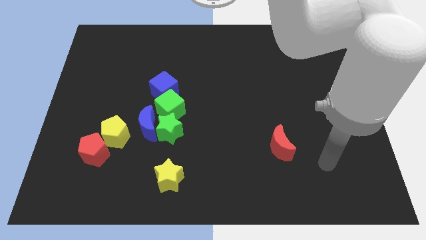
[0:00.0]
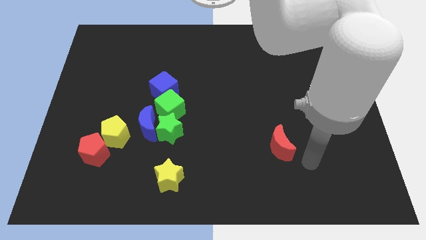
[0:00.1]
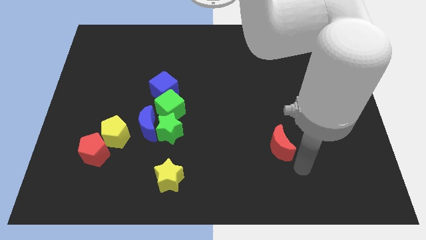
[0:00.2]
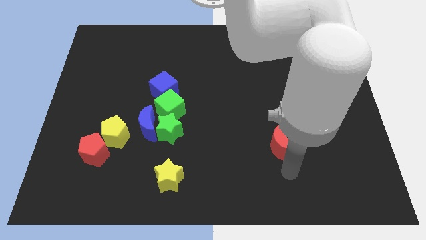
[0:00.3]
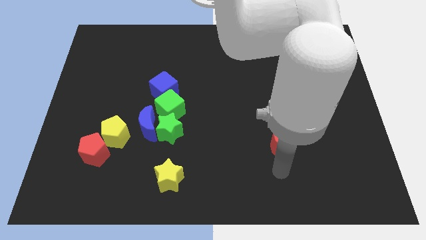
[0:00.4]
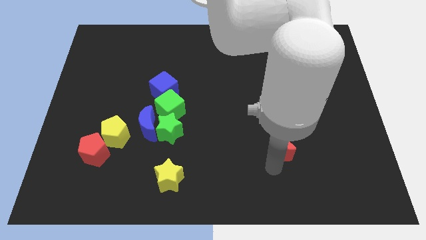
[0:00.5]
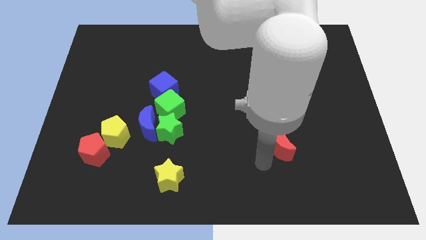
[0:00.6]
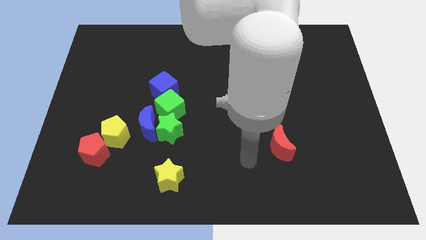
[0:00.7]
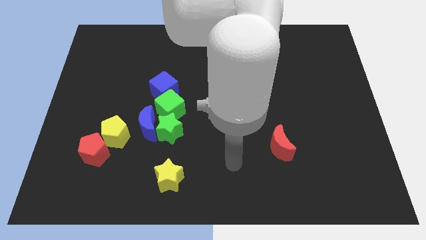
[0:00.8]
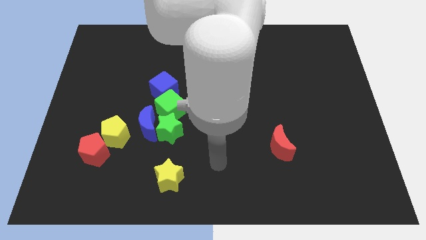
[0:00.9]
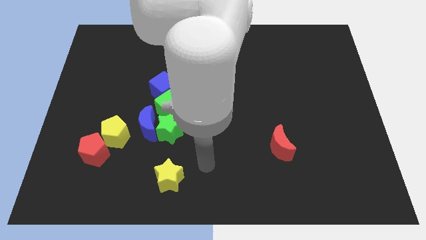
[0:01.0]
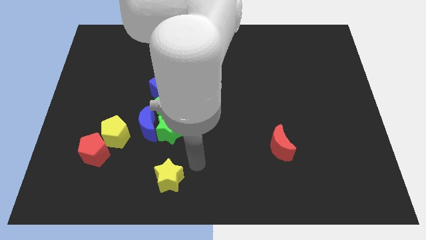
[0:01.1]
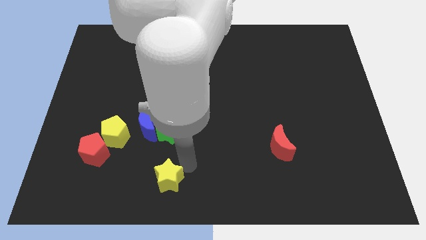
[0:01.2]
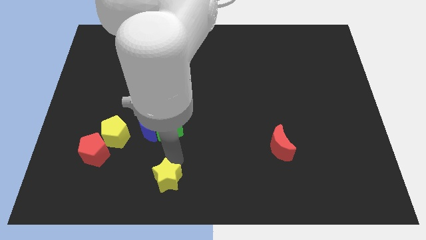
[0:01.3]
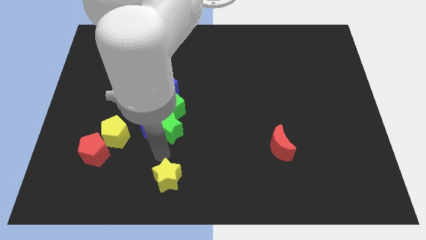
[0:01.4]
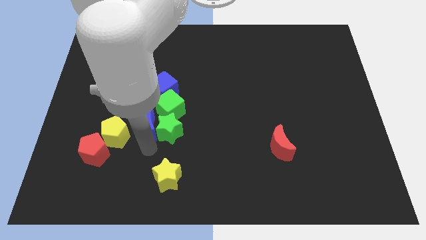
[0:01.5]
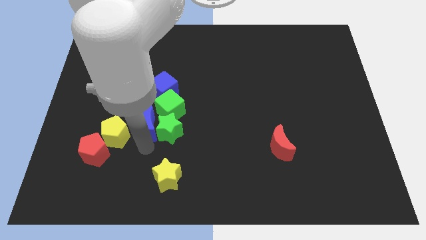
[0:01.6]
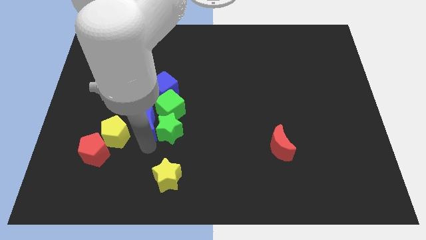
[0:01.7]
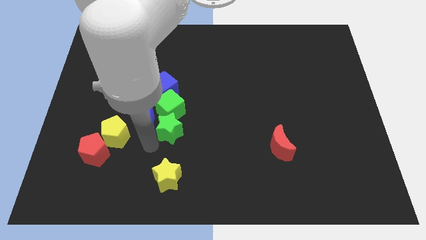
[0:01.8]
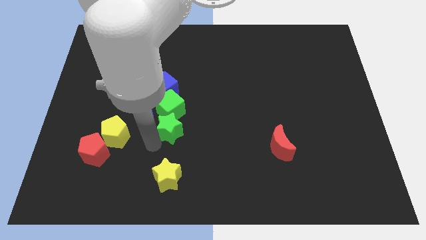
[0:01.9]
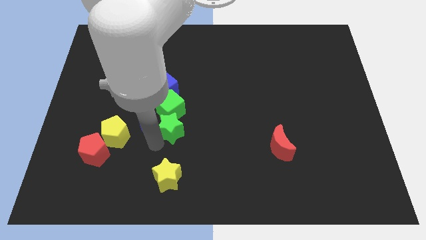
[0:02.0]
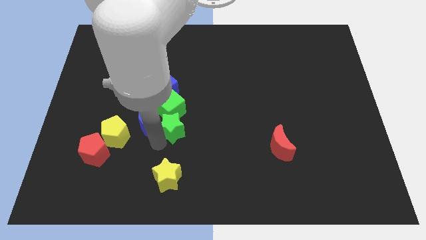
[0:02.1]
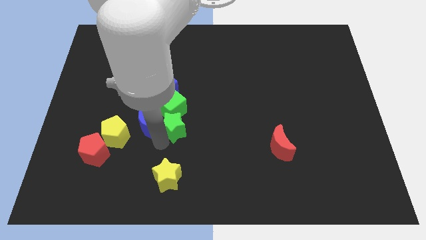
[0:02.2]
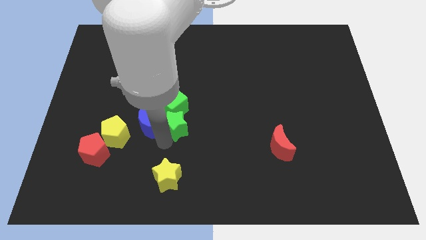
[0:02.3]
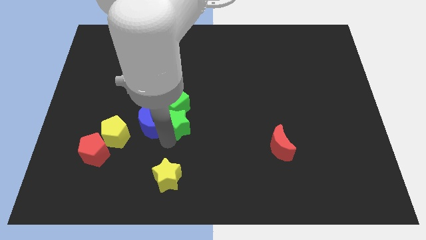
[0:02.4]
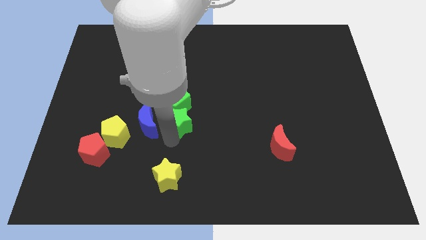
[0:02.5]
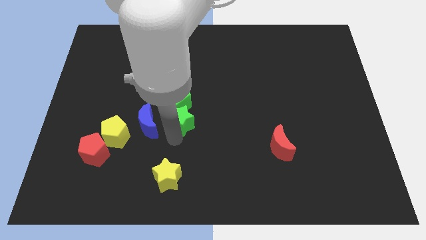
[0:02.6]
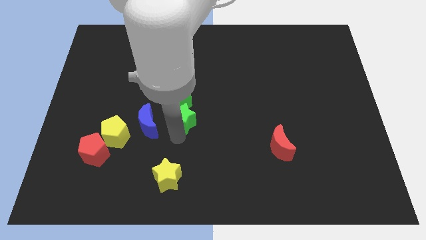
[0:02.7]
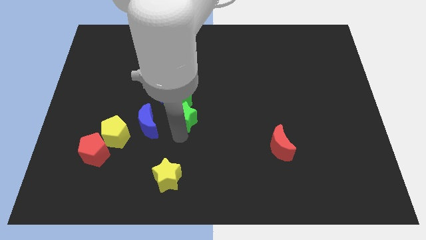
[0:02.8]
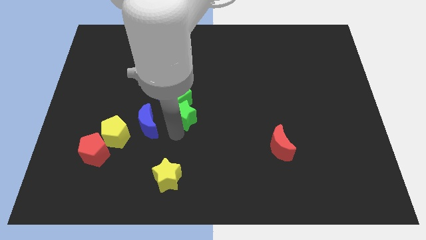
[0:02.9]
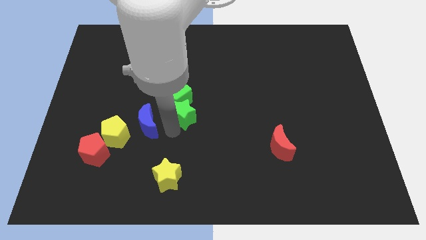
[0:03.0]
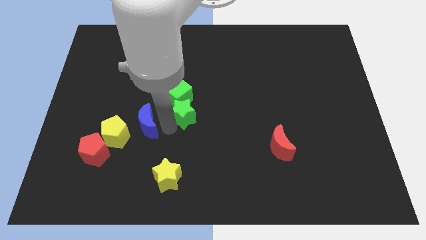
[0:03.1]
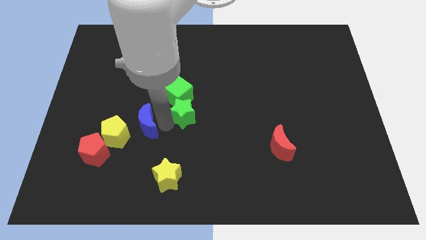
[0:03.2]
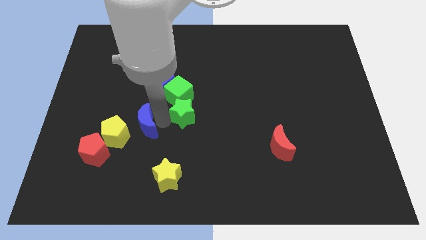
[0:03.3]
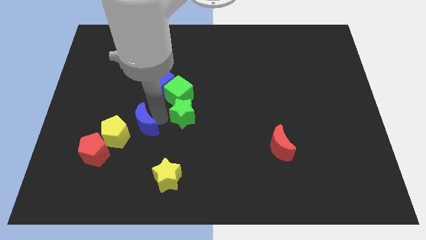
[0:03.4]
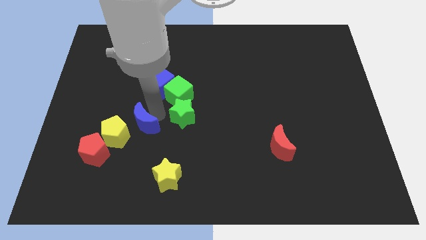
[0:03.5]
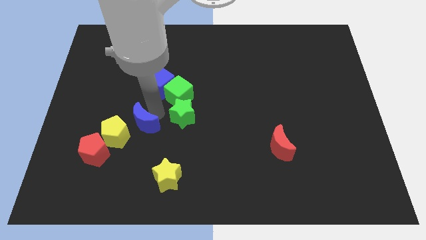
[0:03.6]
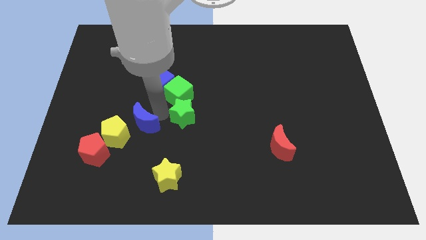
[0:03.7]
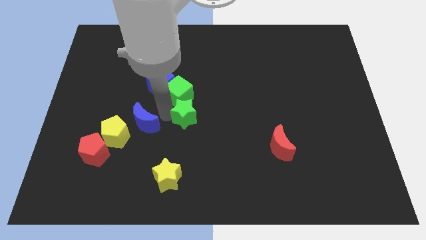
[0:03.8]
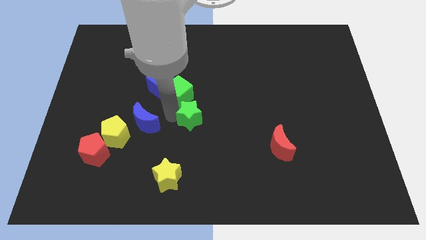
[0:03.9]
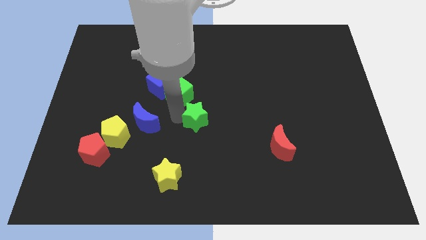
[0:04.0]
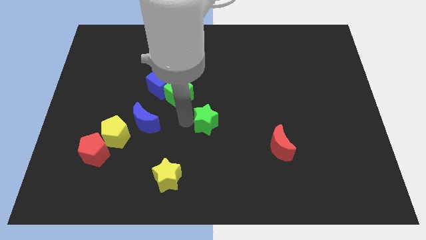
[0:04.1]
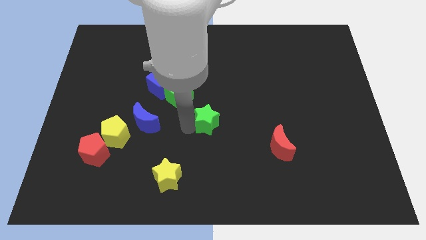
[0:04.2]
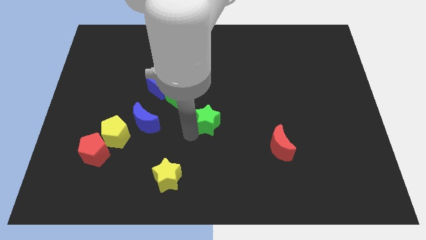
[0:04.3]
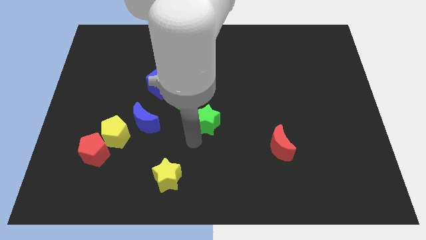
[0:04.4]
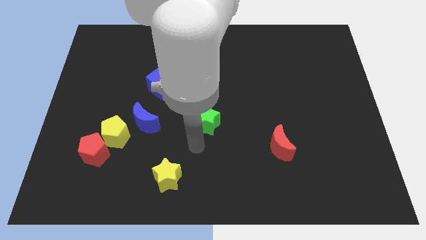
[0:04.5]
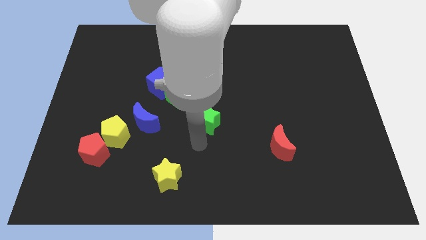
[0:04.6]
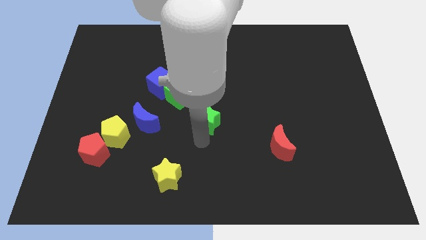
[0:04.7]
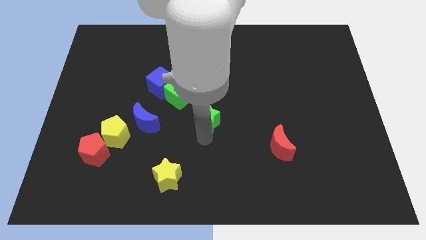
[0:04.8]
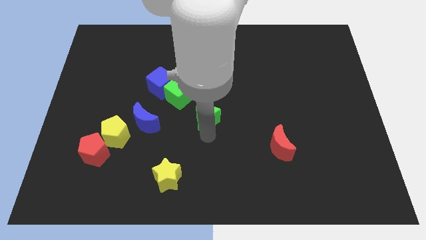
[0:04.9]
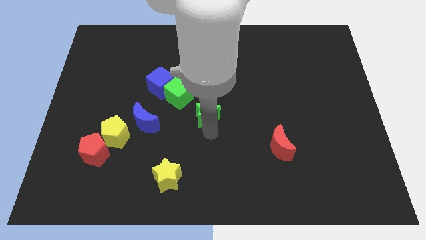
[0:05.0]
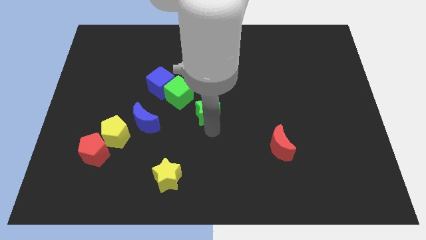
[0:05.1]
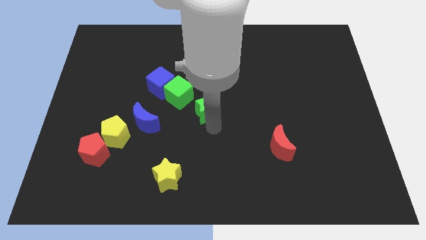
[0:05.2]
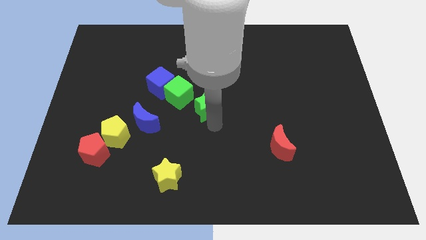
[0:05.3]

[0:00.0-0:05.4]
slide the green star to the right side of the green cube

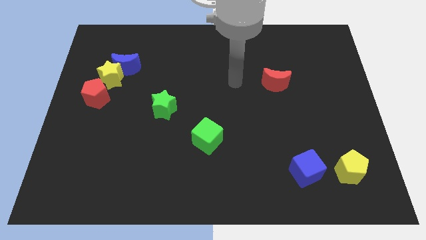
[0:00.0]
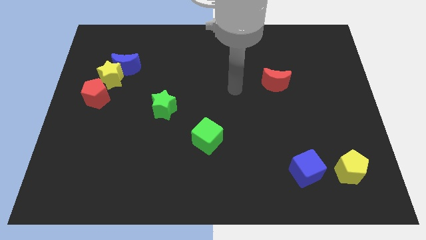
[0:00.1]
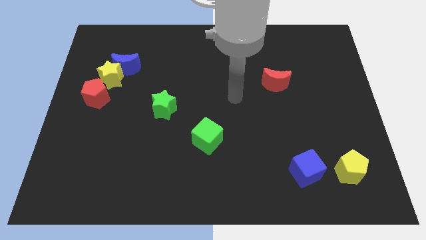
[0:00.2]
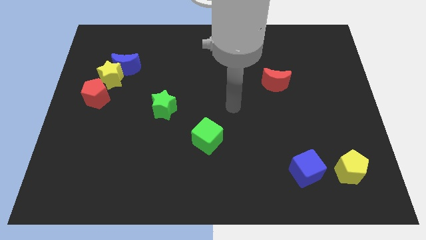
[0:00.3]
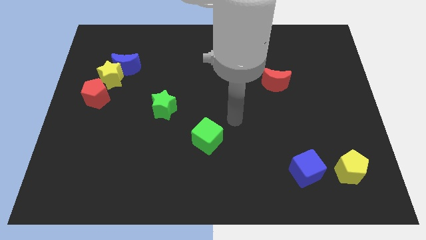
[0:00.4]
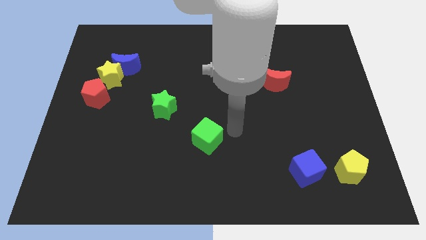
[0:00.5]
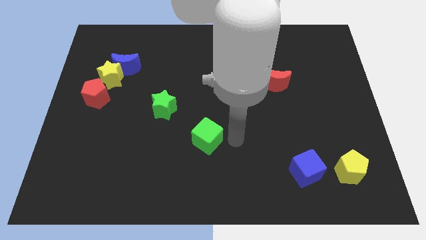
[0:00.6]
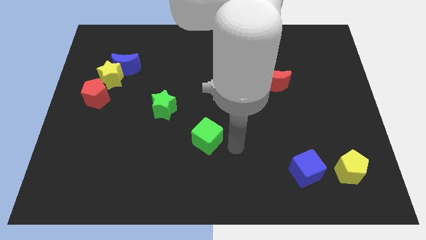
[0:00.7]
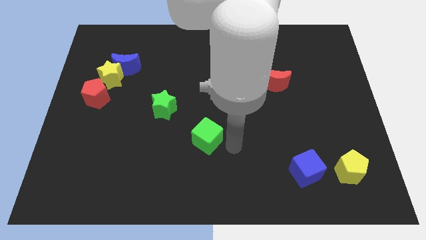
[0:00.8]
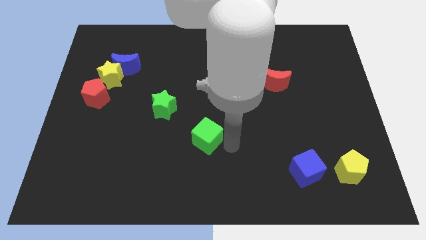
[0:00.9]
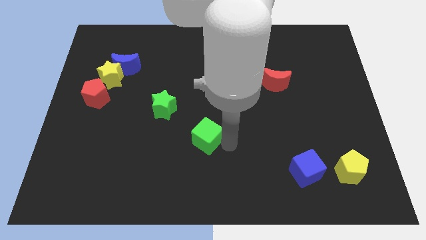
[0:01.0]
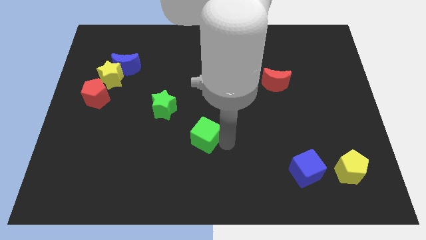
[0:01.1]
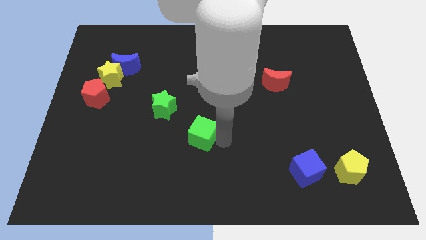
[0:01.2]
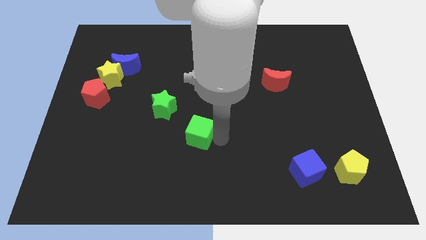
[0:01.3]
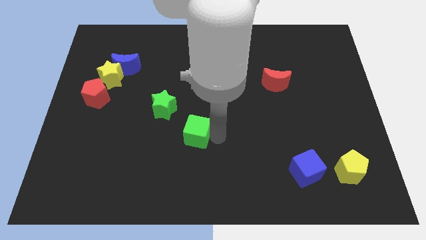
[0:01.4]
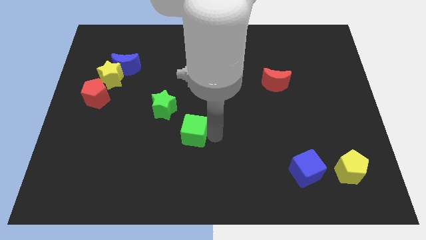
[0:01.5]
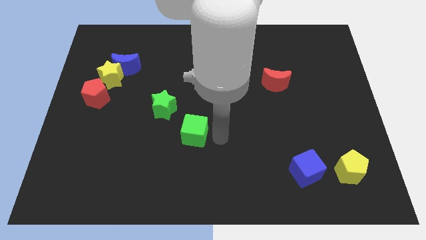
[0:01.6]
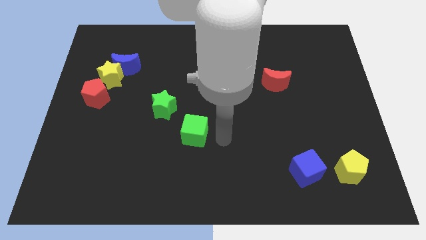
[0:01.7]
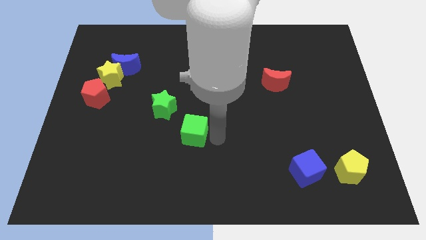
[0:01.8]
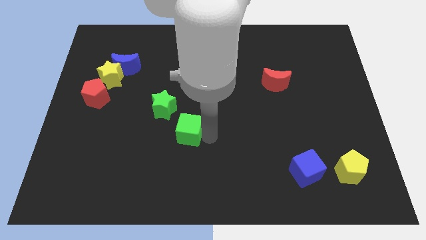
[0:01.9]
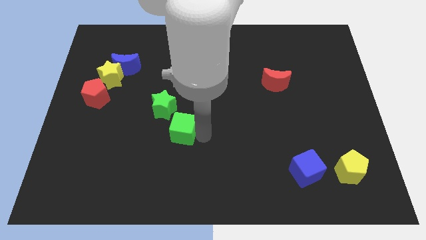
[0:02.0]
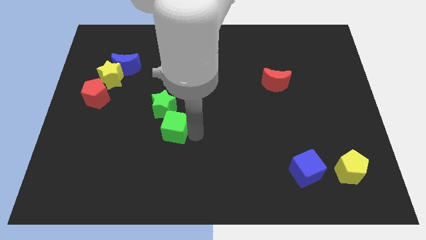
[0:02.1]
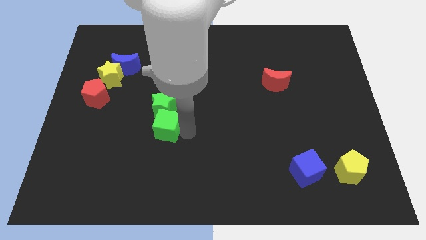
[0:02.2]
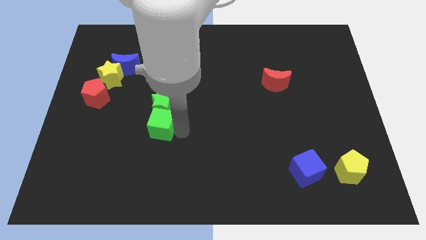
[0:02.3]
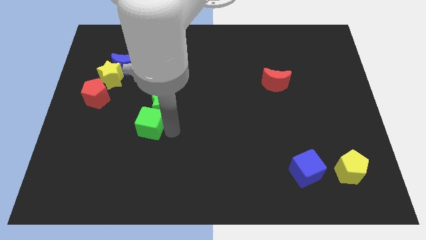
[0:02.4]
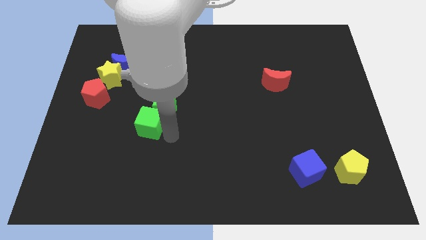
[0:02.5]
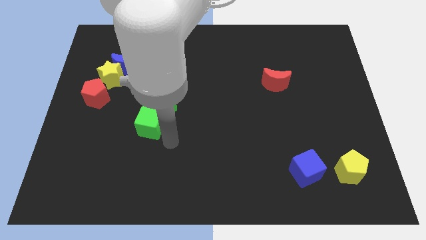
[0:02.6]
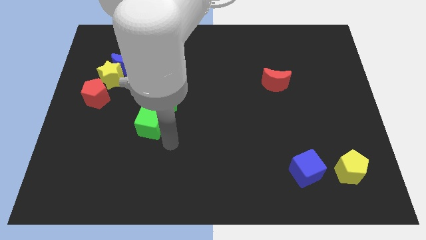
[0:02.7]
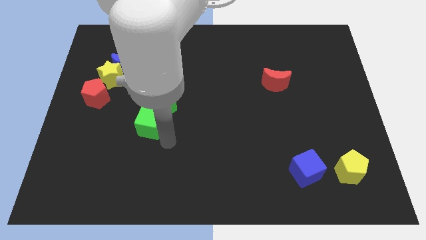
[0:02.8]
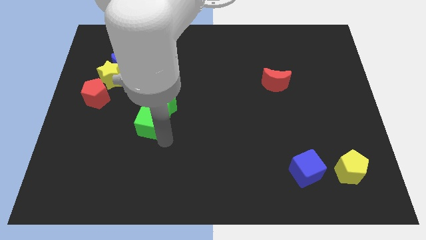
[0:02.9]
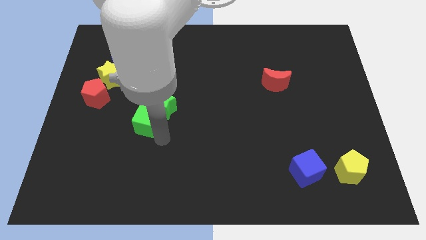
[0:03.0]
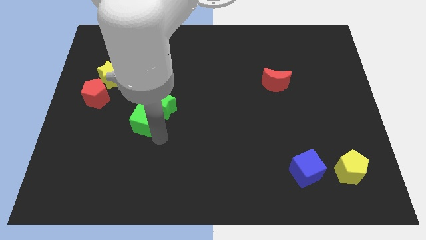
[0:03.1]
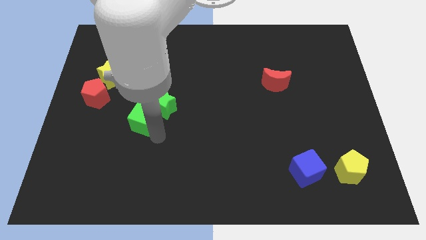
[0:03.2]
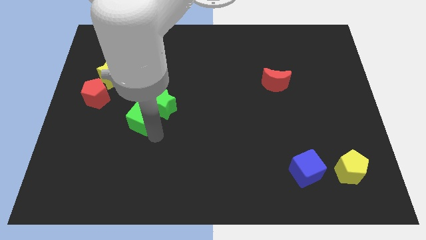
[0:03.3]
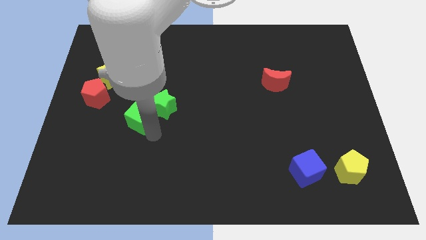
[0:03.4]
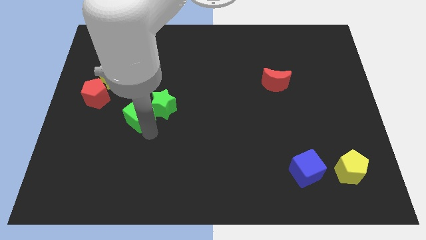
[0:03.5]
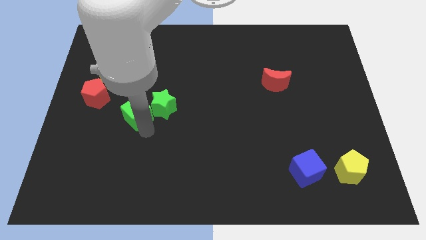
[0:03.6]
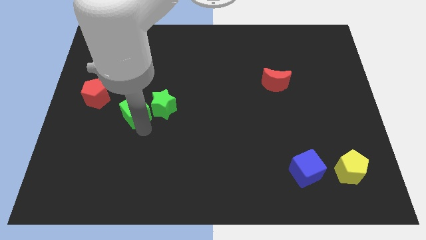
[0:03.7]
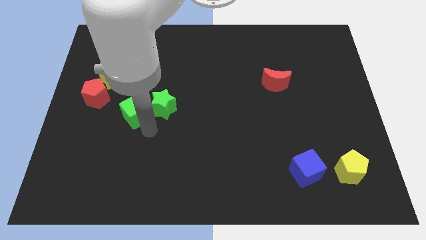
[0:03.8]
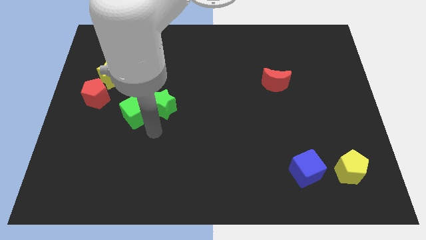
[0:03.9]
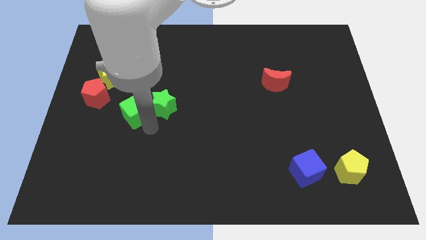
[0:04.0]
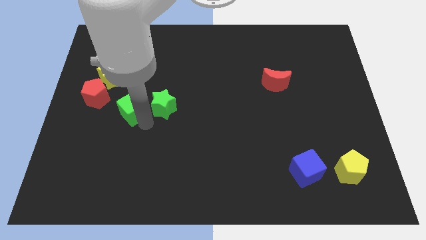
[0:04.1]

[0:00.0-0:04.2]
push the green cube below the blue moon
